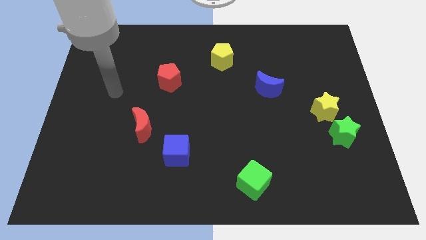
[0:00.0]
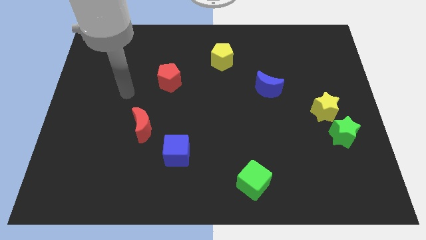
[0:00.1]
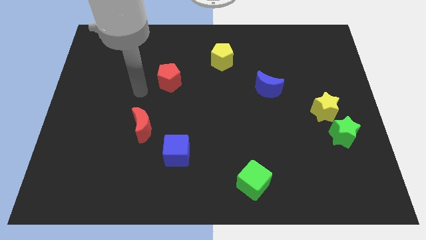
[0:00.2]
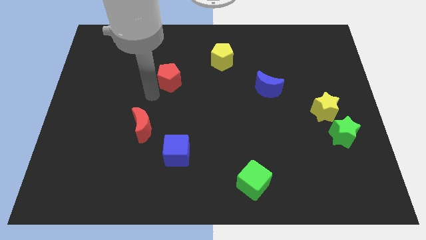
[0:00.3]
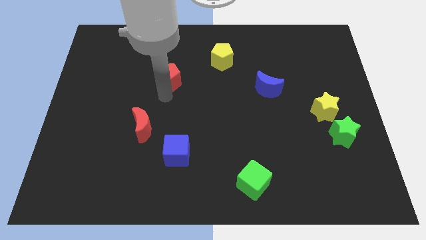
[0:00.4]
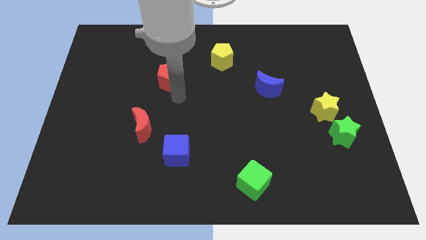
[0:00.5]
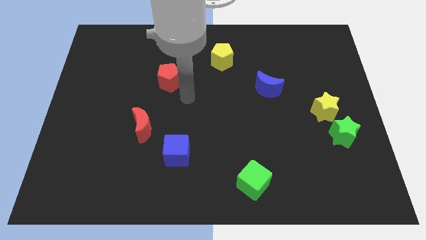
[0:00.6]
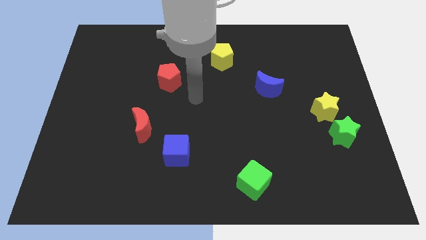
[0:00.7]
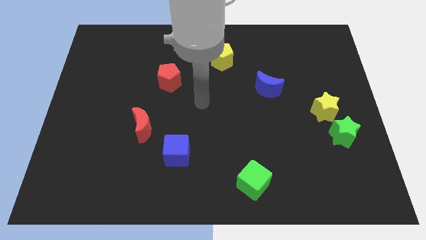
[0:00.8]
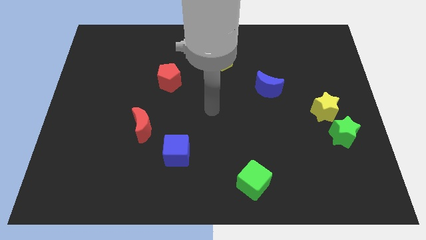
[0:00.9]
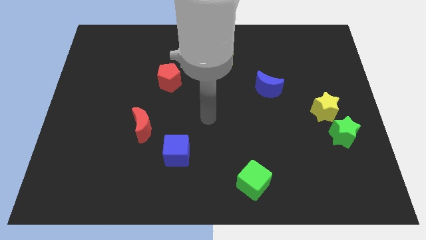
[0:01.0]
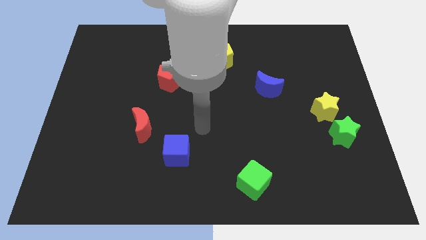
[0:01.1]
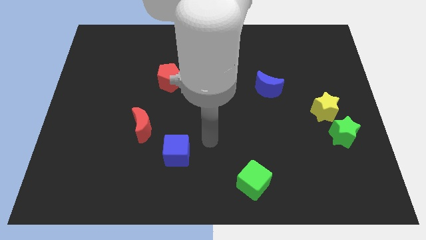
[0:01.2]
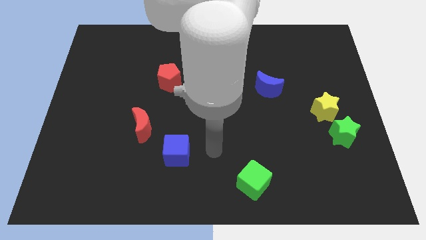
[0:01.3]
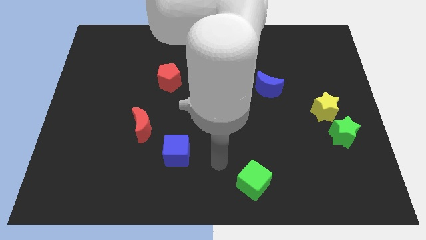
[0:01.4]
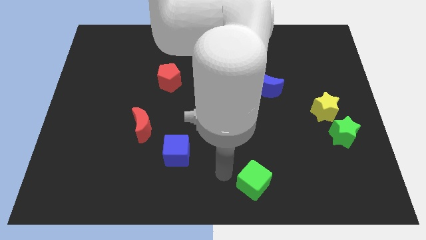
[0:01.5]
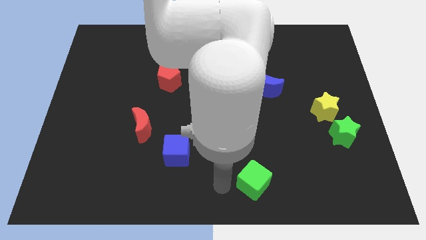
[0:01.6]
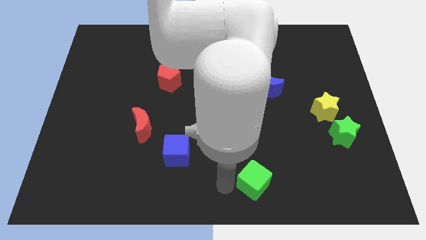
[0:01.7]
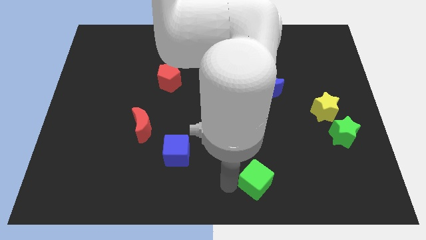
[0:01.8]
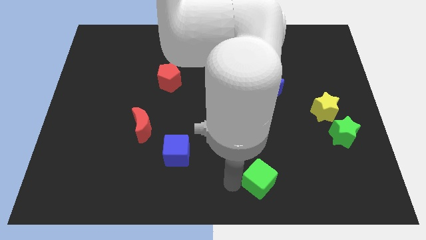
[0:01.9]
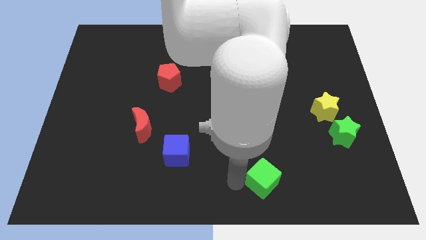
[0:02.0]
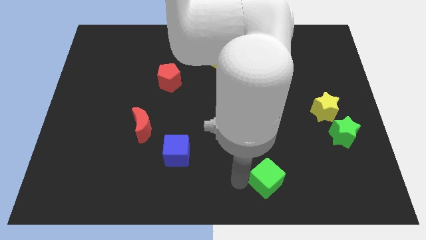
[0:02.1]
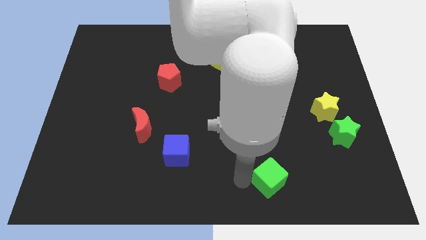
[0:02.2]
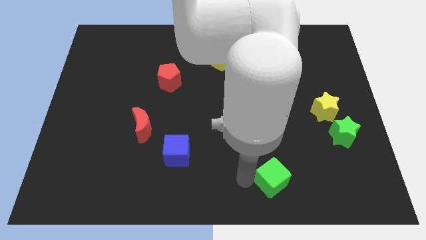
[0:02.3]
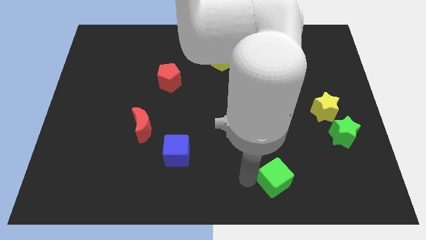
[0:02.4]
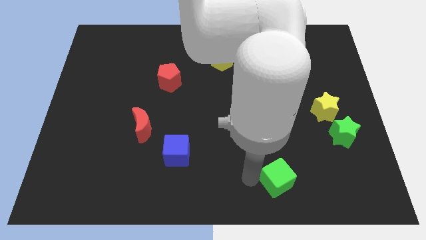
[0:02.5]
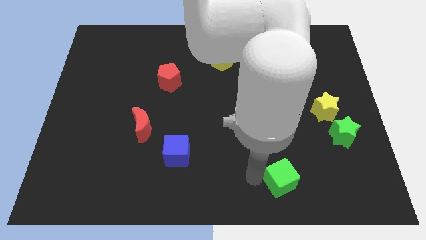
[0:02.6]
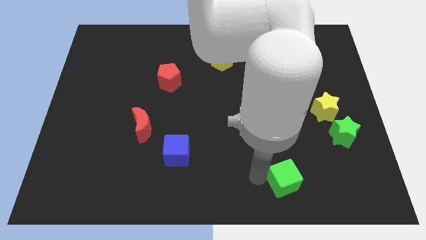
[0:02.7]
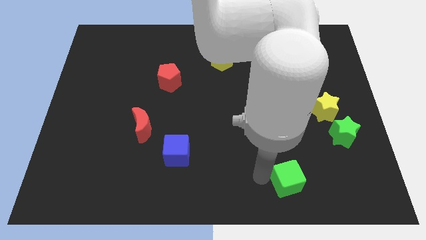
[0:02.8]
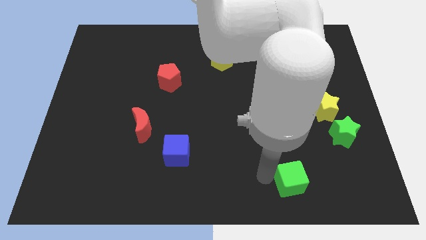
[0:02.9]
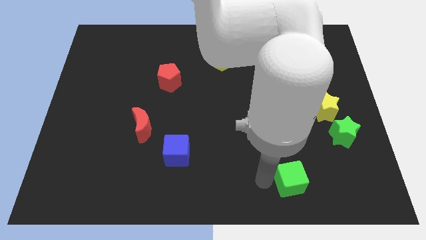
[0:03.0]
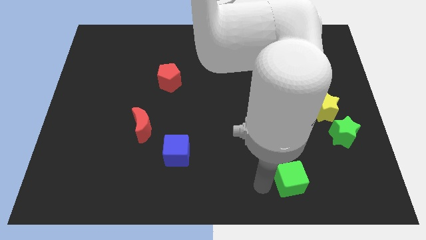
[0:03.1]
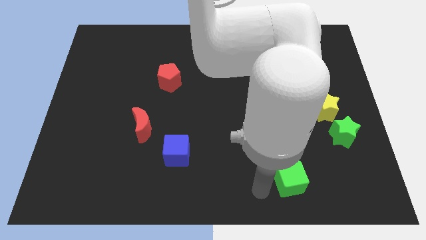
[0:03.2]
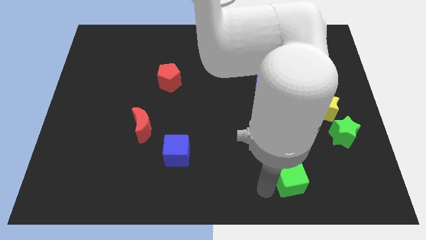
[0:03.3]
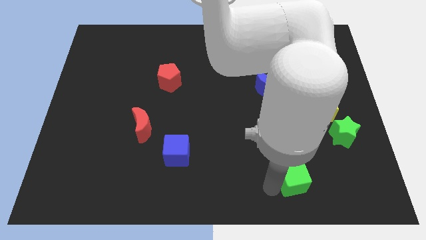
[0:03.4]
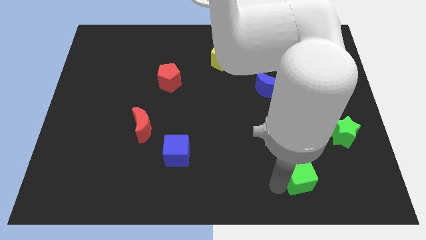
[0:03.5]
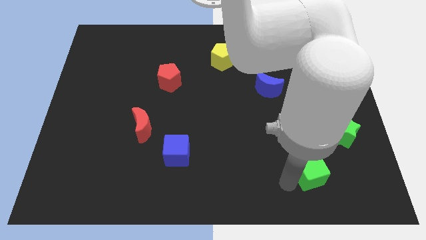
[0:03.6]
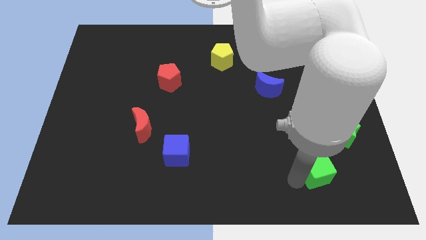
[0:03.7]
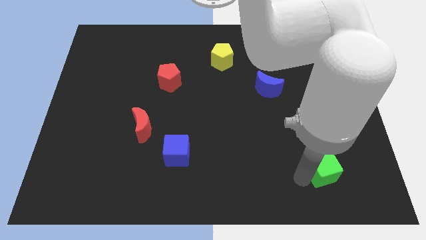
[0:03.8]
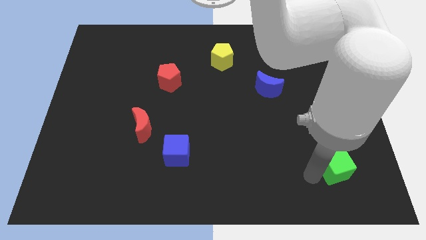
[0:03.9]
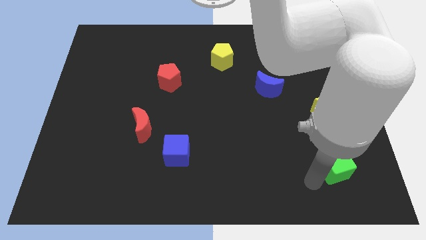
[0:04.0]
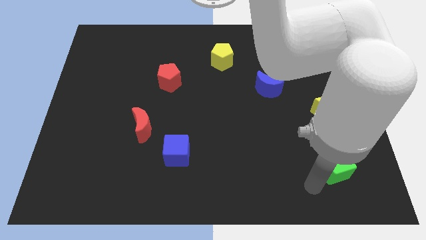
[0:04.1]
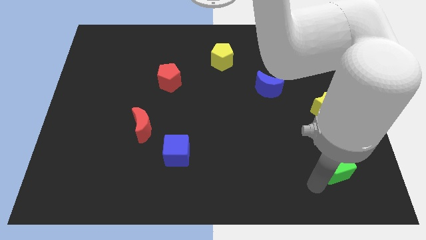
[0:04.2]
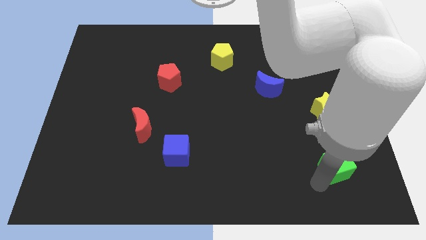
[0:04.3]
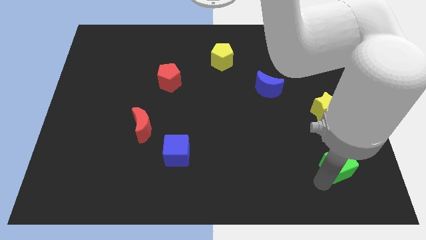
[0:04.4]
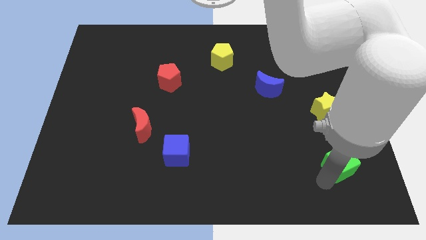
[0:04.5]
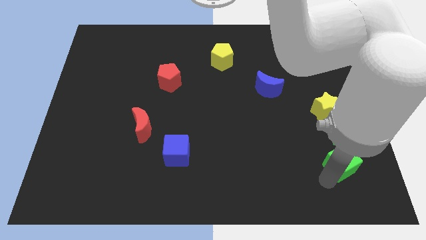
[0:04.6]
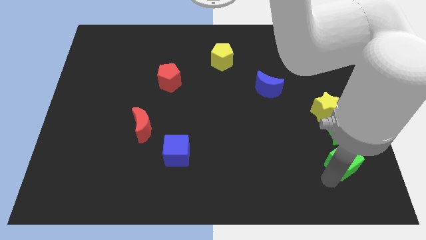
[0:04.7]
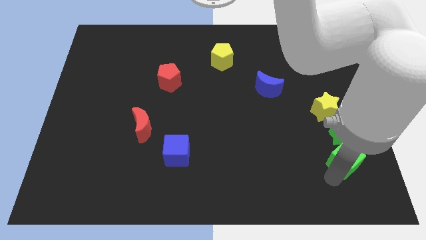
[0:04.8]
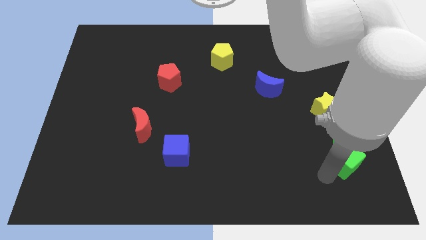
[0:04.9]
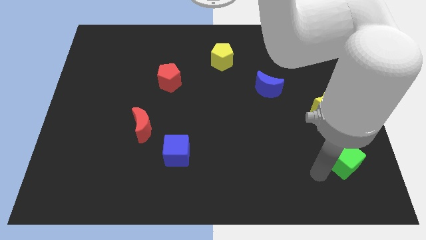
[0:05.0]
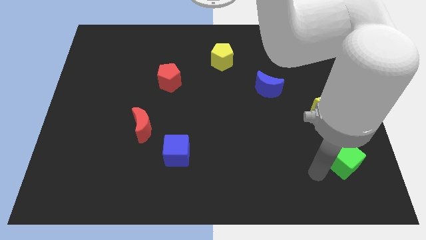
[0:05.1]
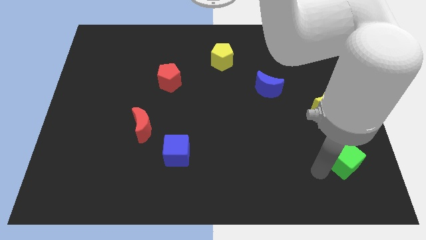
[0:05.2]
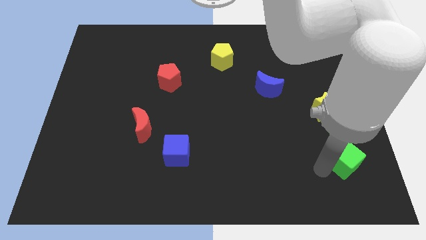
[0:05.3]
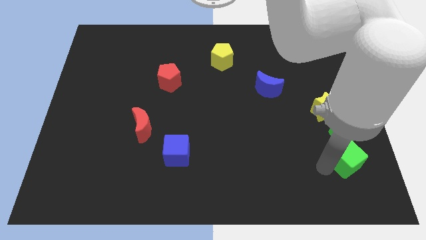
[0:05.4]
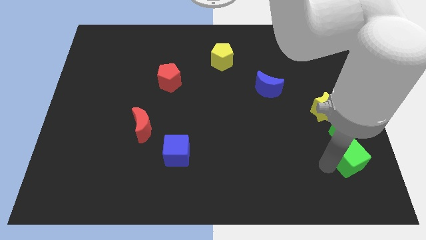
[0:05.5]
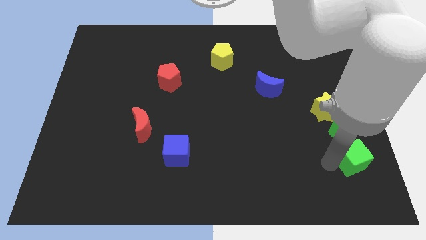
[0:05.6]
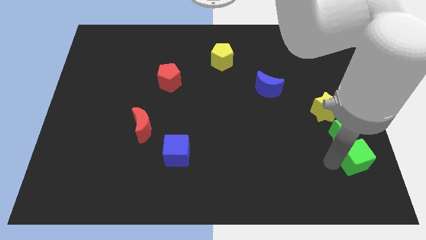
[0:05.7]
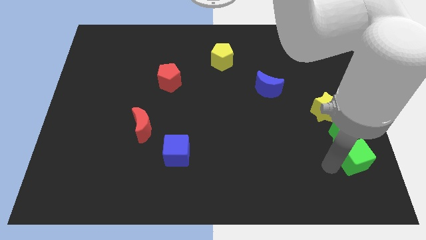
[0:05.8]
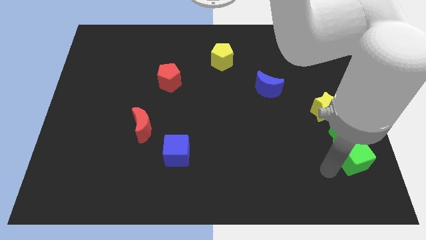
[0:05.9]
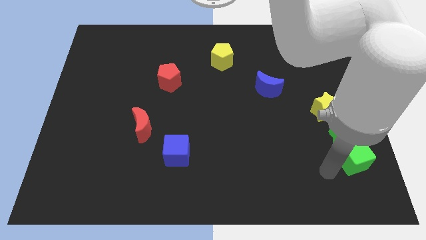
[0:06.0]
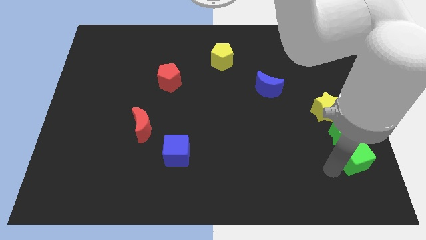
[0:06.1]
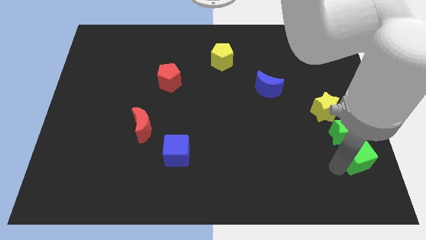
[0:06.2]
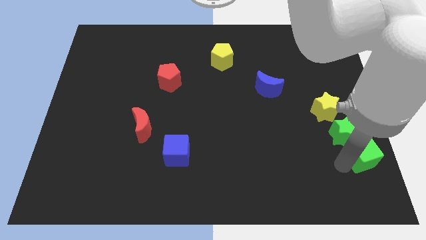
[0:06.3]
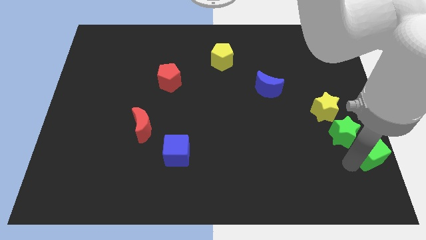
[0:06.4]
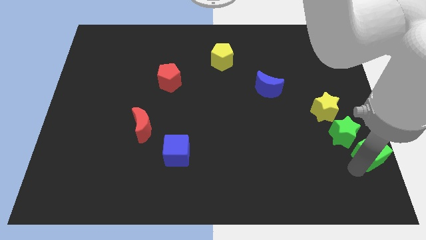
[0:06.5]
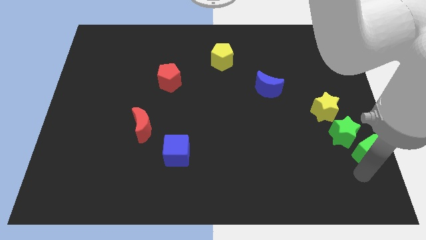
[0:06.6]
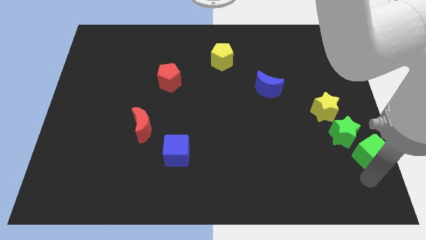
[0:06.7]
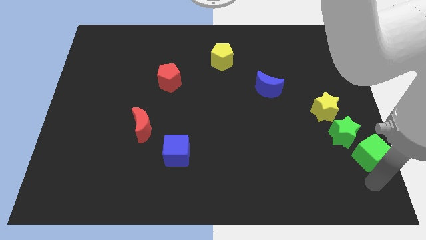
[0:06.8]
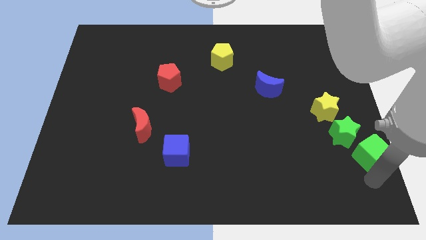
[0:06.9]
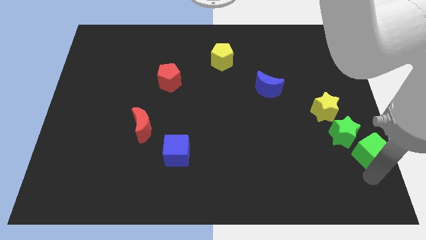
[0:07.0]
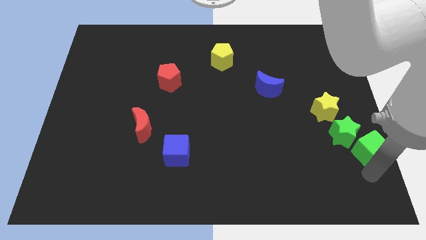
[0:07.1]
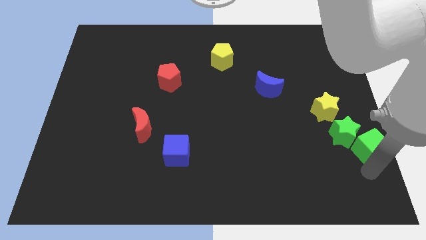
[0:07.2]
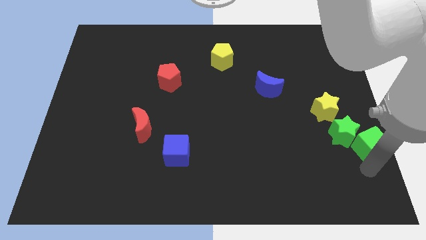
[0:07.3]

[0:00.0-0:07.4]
put the green cube to the right side of the board
